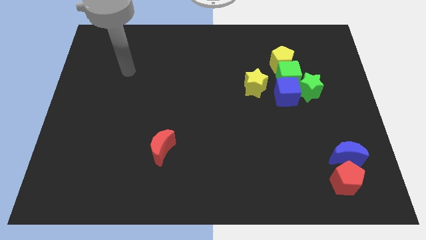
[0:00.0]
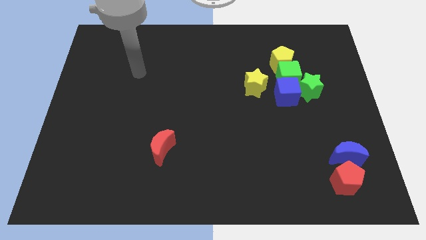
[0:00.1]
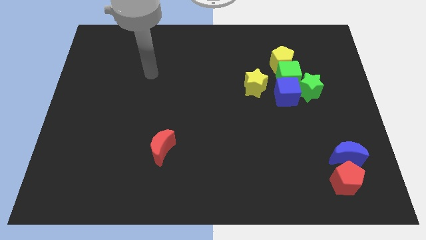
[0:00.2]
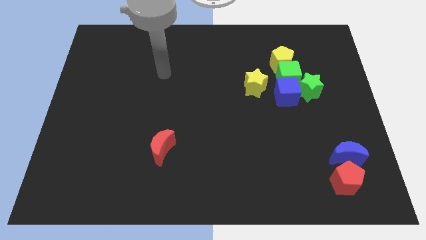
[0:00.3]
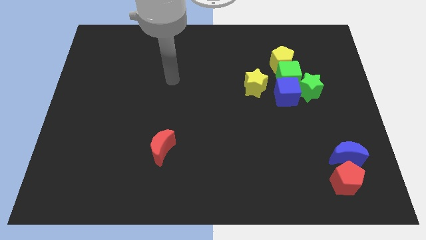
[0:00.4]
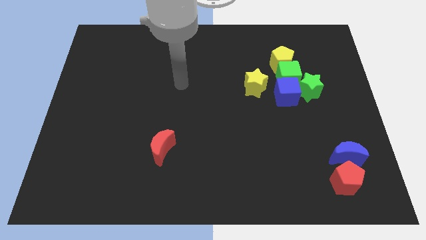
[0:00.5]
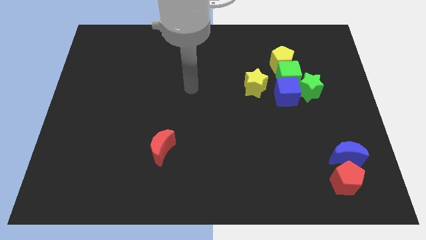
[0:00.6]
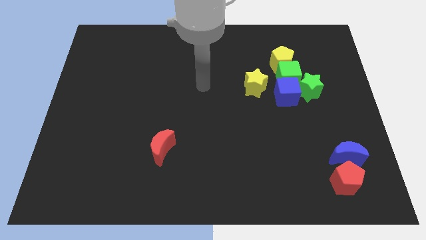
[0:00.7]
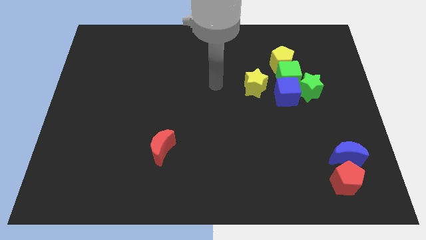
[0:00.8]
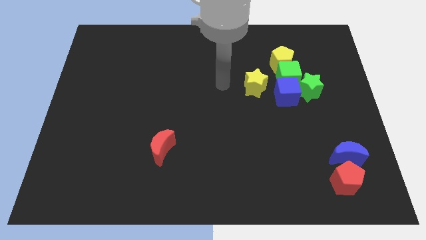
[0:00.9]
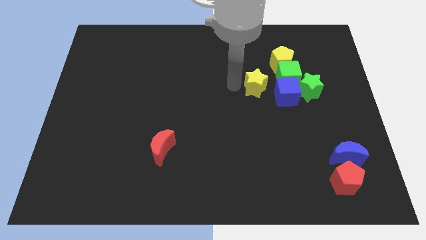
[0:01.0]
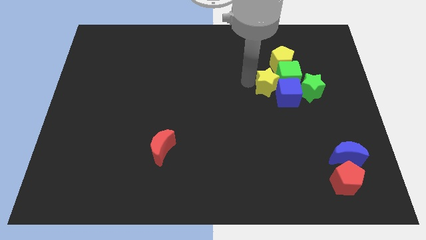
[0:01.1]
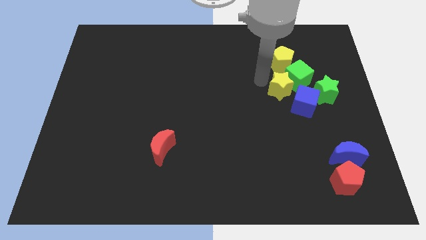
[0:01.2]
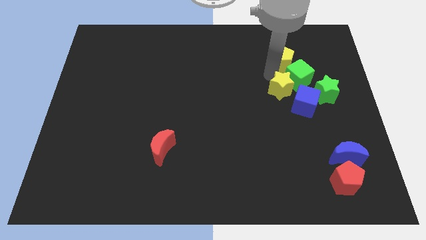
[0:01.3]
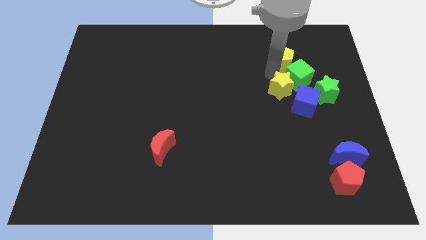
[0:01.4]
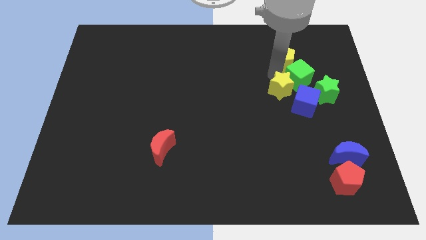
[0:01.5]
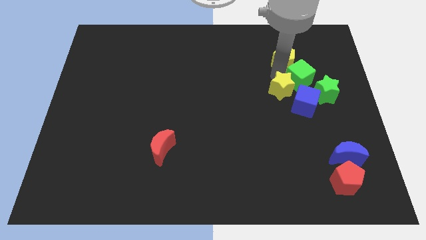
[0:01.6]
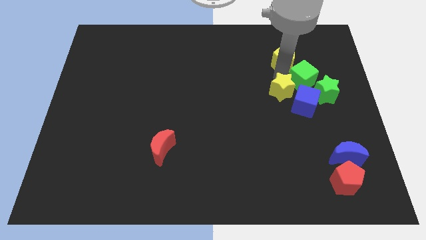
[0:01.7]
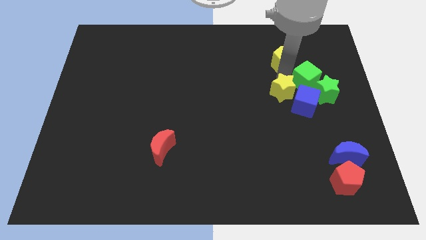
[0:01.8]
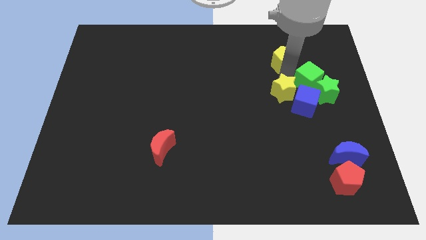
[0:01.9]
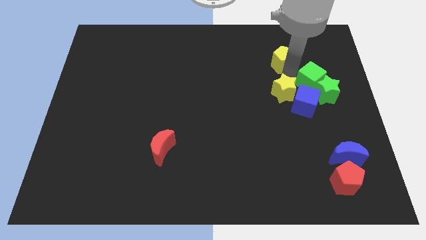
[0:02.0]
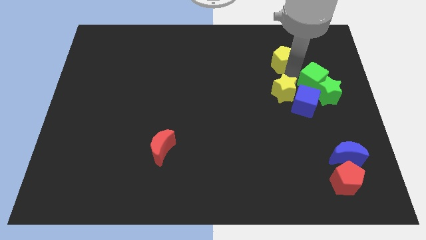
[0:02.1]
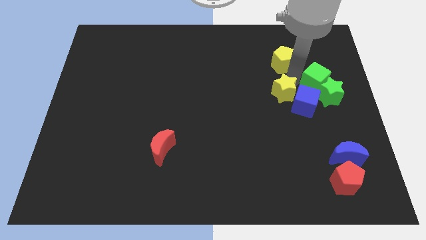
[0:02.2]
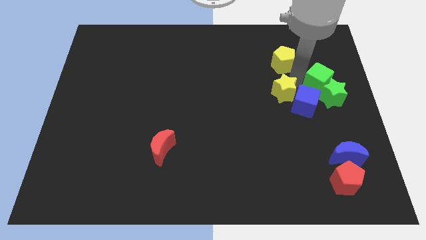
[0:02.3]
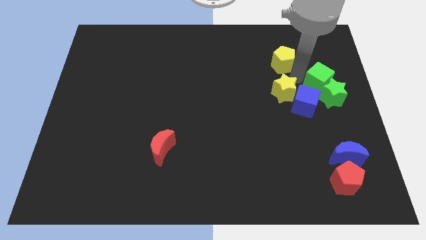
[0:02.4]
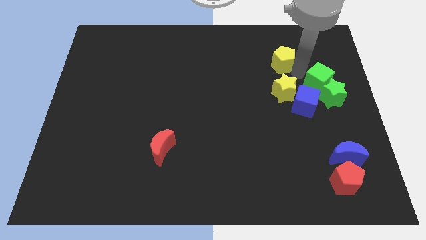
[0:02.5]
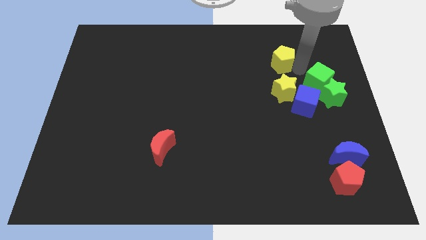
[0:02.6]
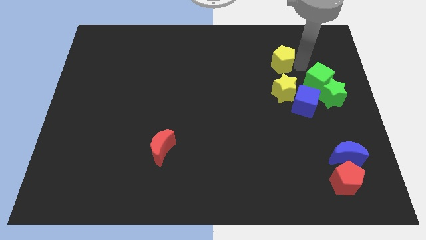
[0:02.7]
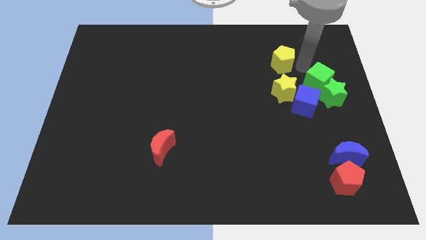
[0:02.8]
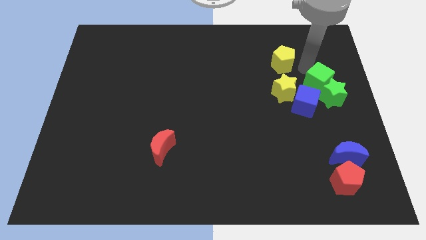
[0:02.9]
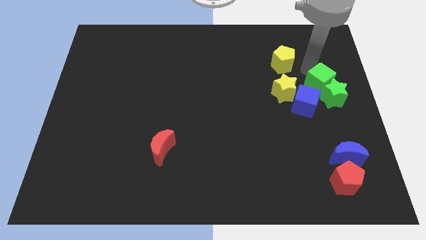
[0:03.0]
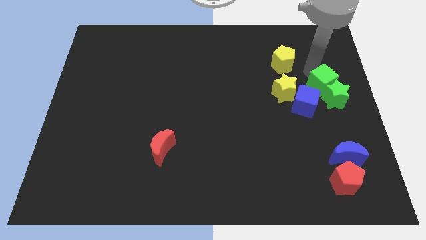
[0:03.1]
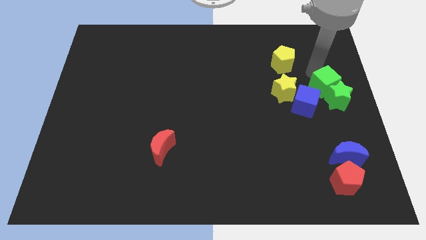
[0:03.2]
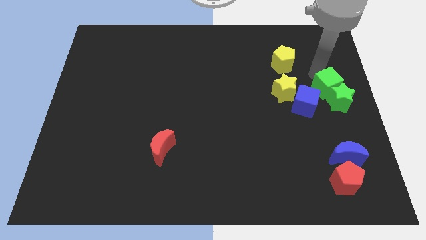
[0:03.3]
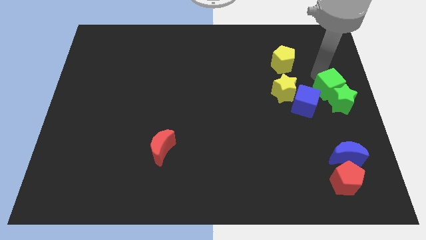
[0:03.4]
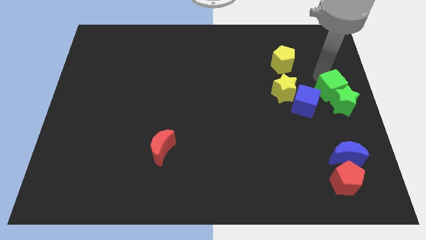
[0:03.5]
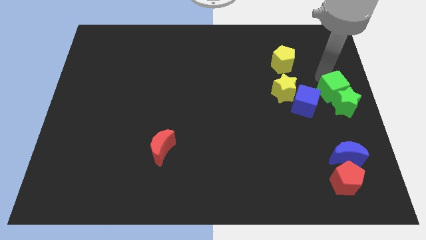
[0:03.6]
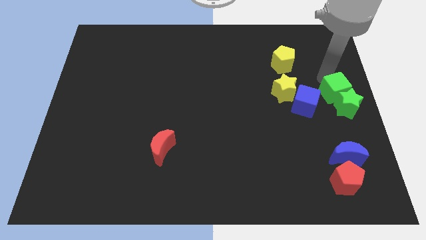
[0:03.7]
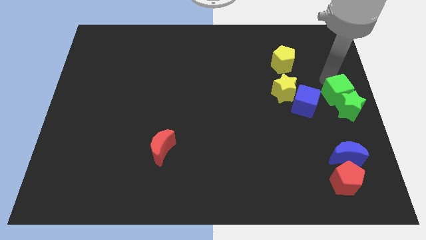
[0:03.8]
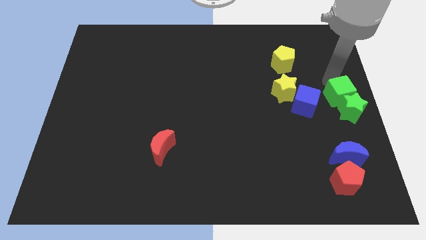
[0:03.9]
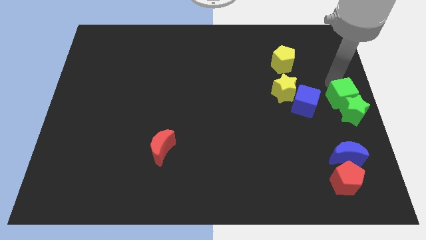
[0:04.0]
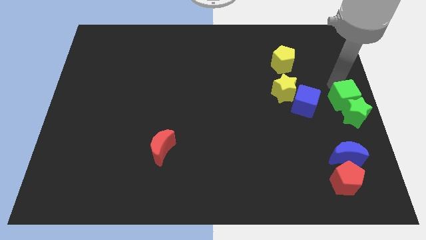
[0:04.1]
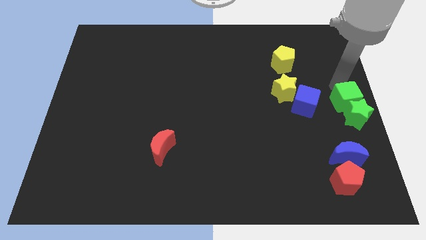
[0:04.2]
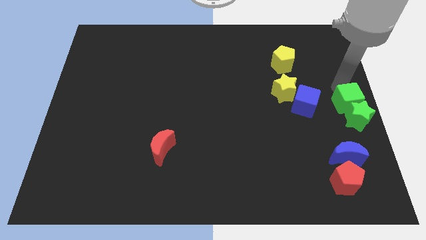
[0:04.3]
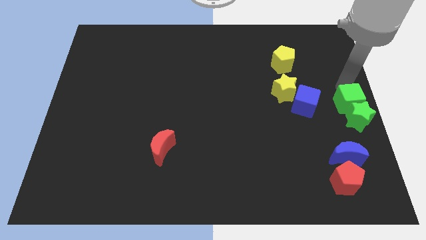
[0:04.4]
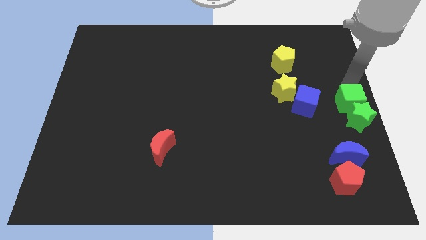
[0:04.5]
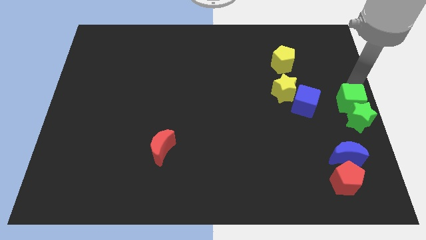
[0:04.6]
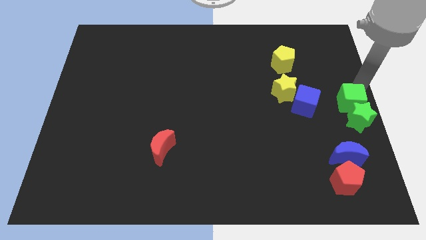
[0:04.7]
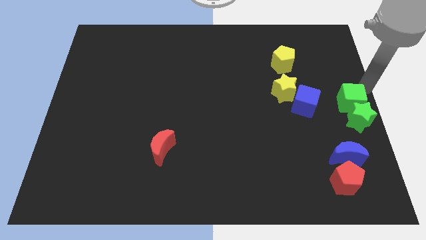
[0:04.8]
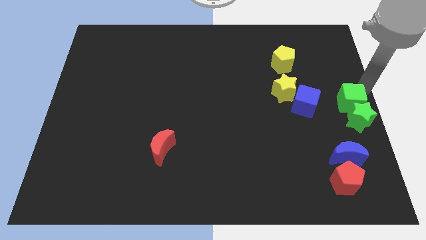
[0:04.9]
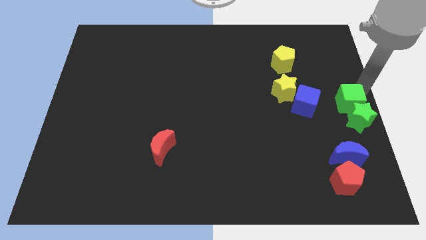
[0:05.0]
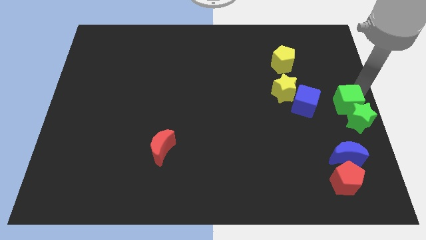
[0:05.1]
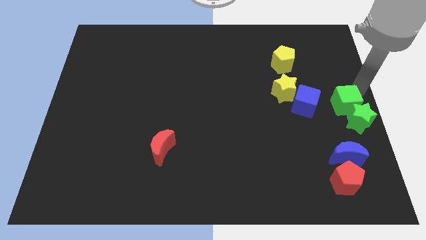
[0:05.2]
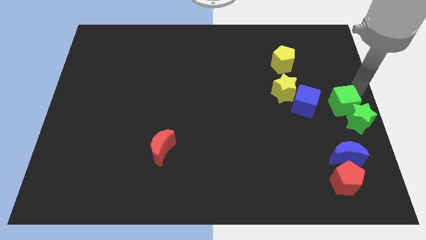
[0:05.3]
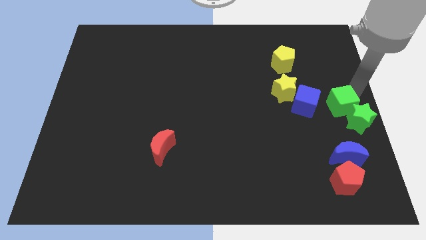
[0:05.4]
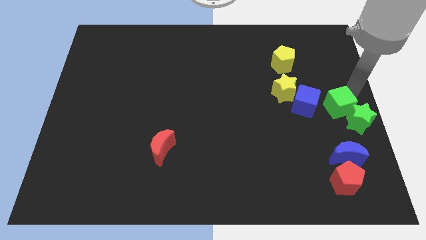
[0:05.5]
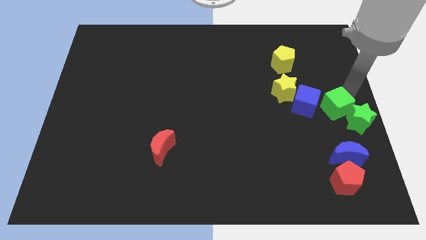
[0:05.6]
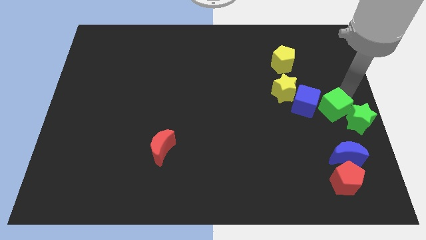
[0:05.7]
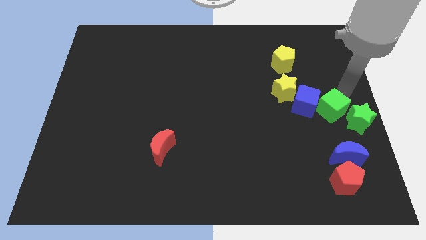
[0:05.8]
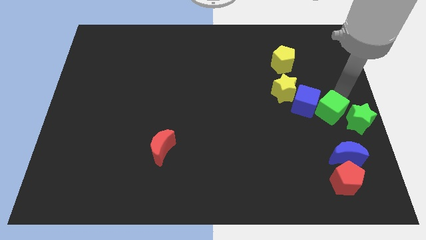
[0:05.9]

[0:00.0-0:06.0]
slightly move the green cube down

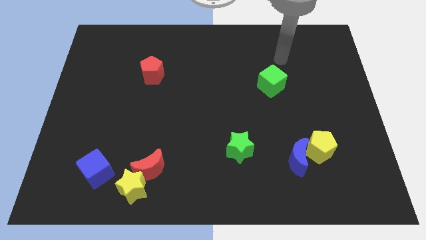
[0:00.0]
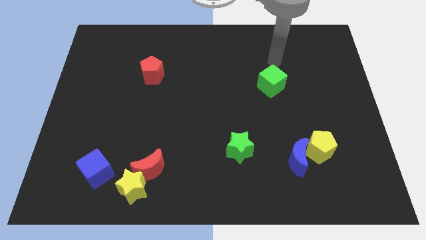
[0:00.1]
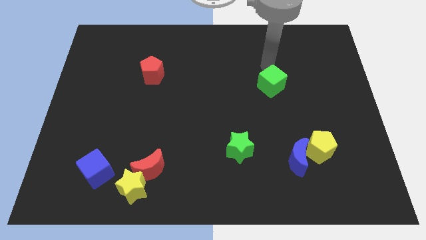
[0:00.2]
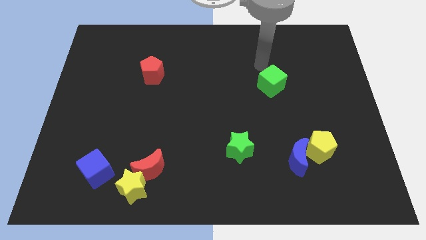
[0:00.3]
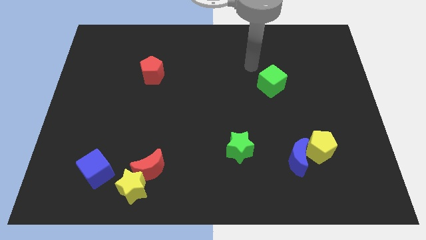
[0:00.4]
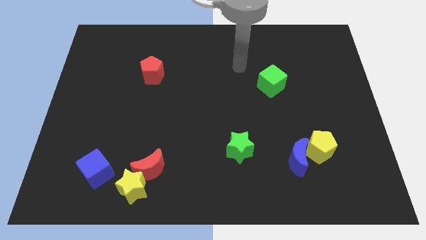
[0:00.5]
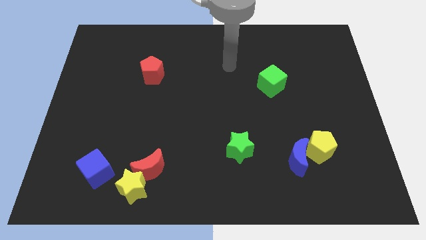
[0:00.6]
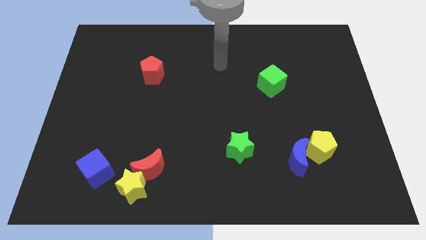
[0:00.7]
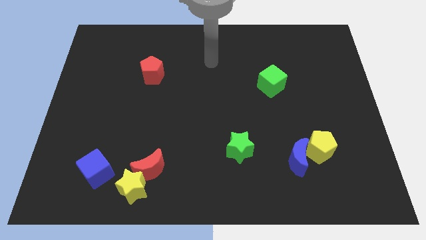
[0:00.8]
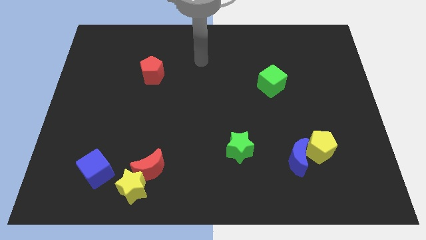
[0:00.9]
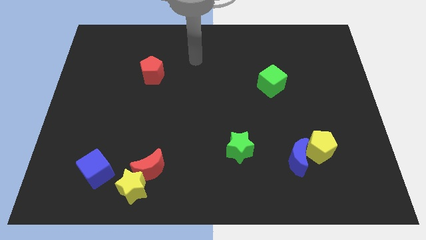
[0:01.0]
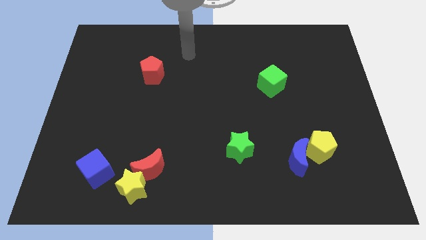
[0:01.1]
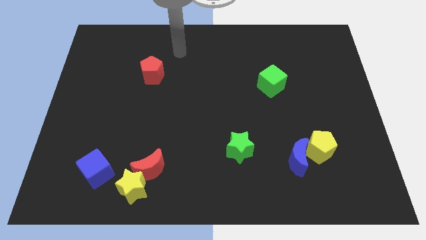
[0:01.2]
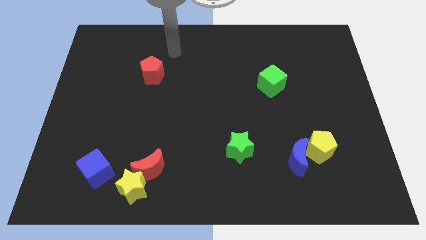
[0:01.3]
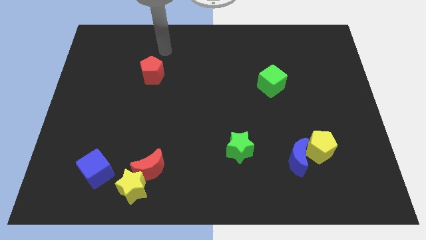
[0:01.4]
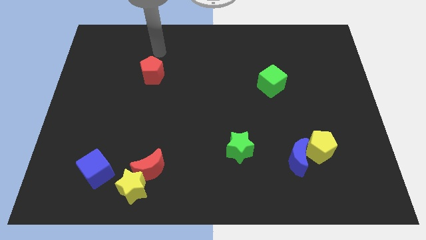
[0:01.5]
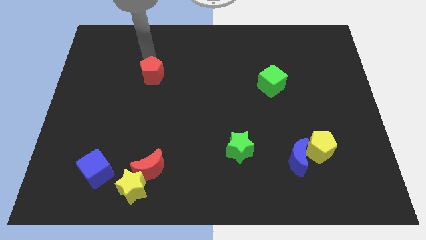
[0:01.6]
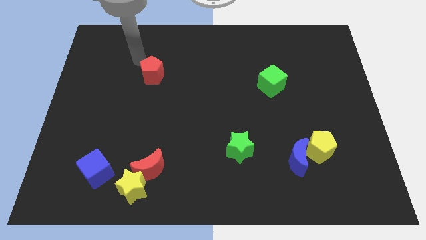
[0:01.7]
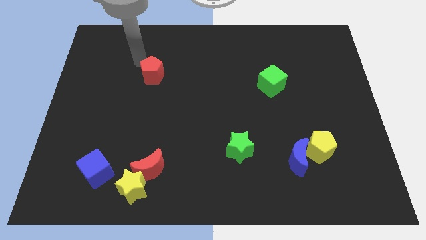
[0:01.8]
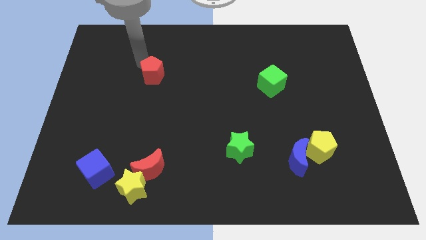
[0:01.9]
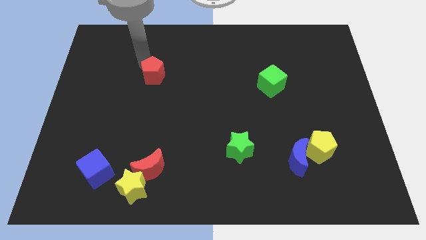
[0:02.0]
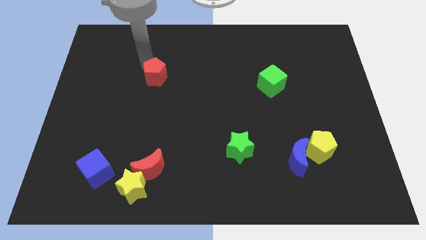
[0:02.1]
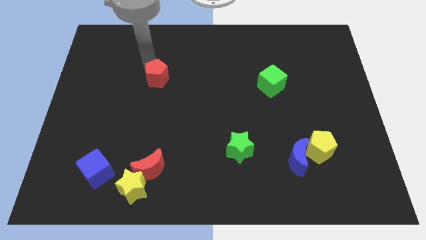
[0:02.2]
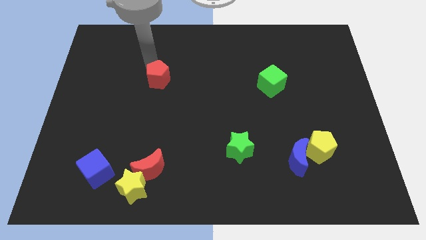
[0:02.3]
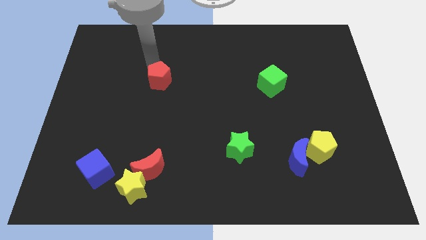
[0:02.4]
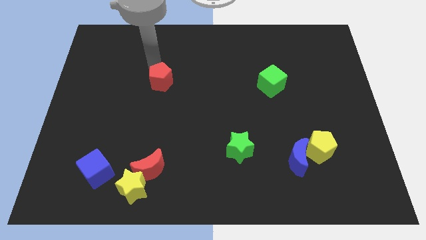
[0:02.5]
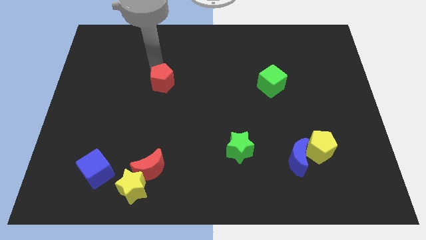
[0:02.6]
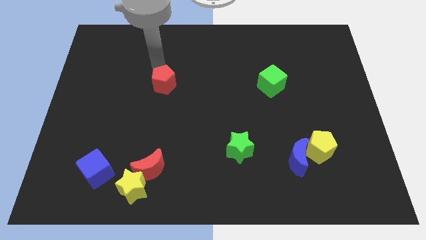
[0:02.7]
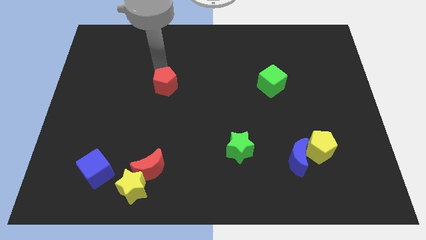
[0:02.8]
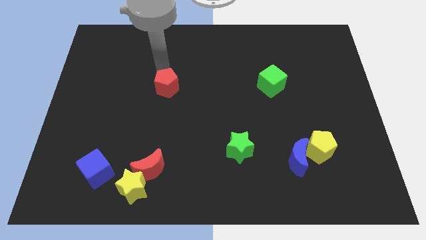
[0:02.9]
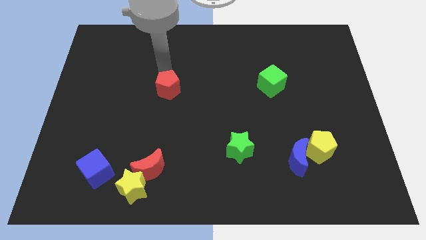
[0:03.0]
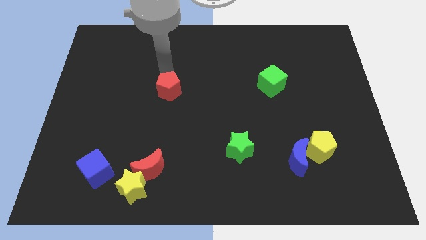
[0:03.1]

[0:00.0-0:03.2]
push the red pentagon a little diagonally downwards and to the right
